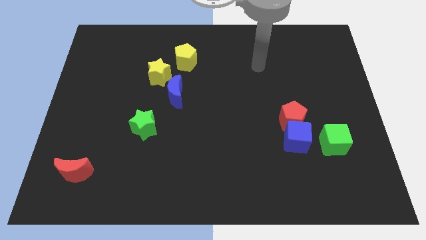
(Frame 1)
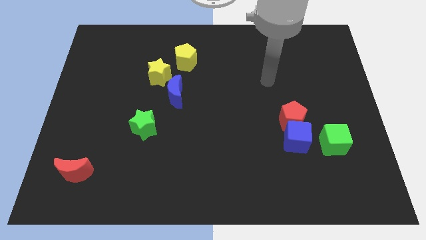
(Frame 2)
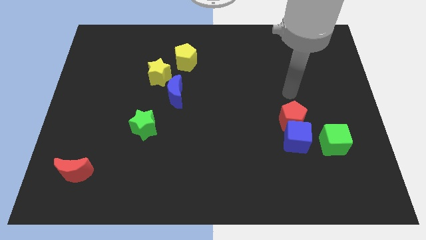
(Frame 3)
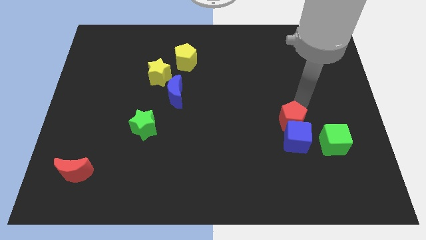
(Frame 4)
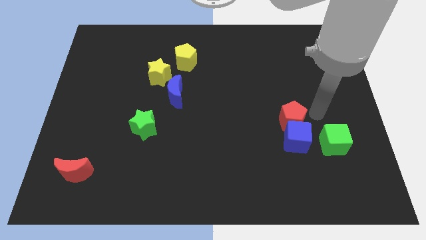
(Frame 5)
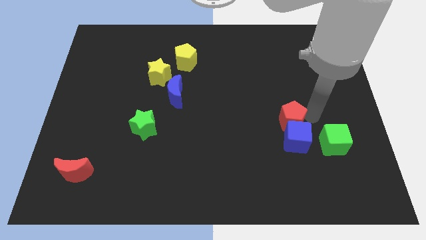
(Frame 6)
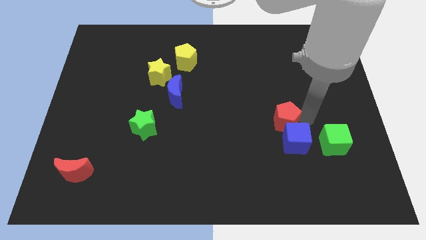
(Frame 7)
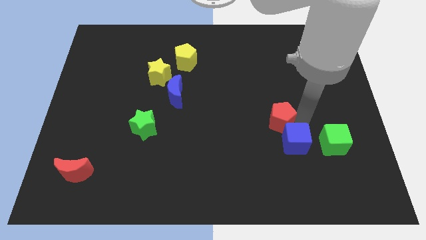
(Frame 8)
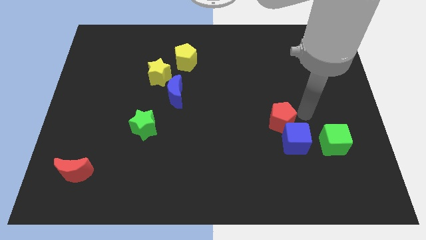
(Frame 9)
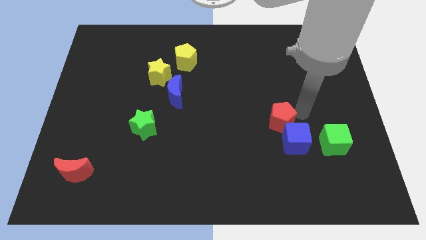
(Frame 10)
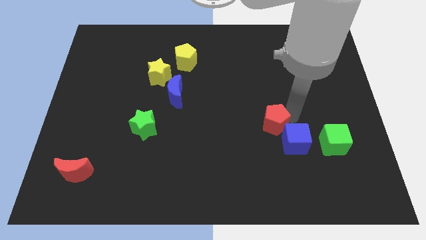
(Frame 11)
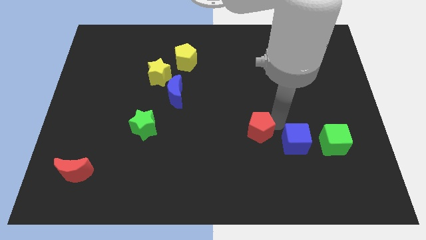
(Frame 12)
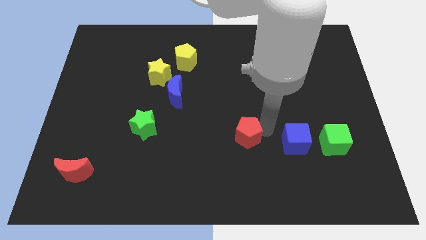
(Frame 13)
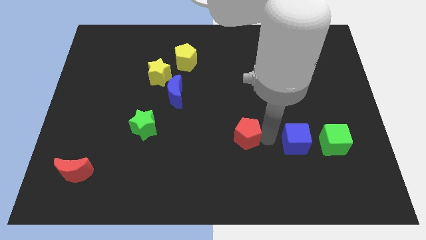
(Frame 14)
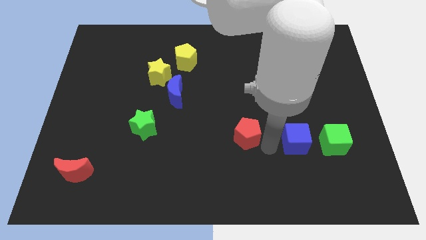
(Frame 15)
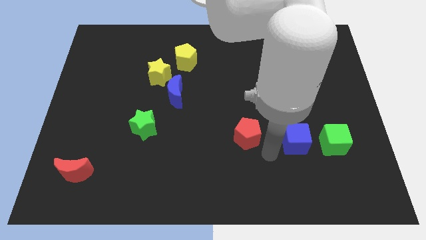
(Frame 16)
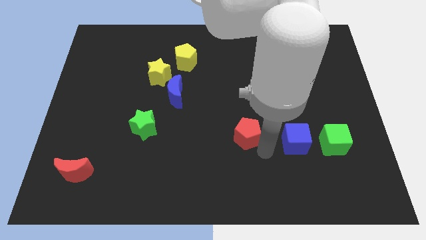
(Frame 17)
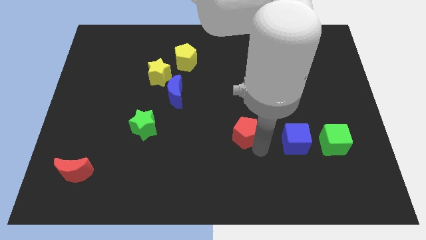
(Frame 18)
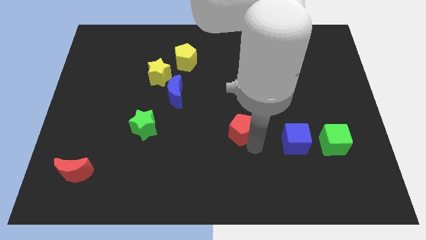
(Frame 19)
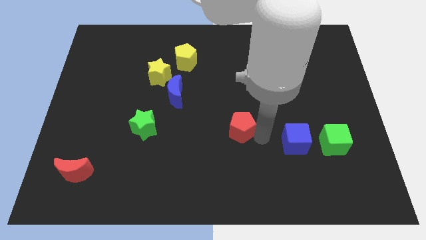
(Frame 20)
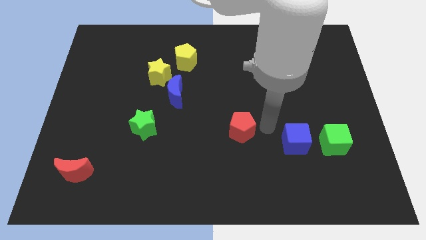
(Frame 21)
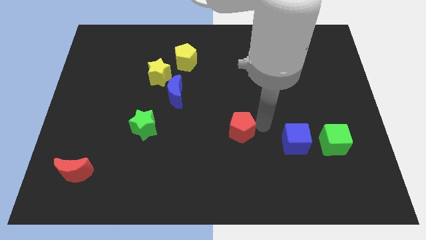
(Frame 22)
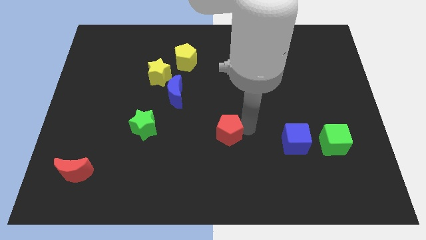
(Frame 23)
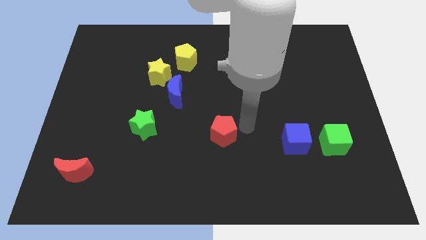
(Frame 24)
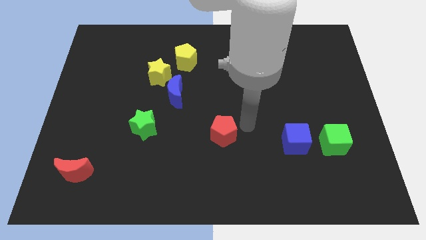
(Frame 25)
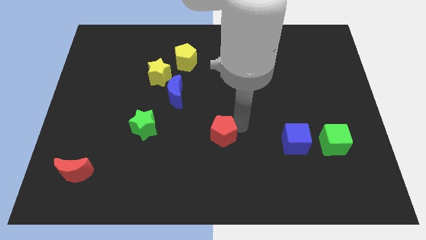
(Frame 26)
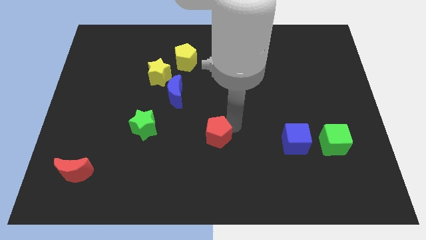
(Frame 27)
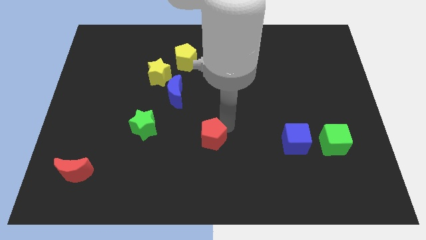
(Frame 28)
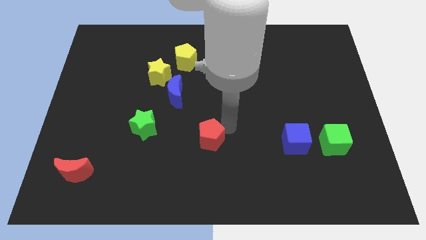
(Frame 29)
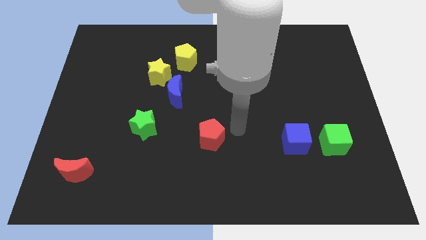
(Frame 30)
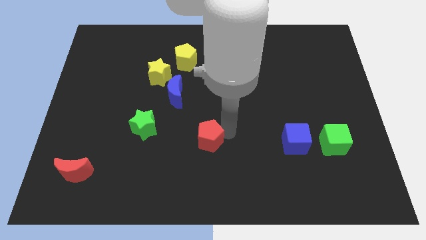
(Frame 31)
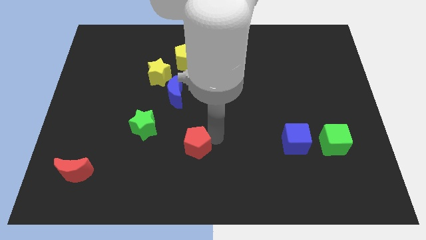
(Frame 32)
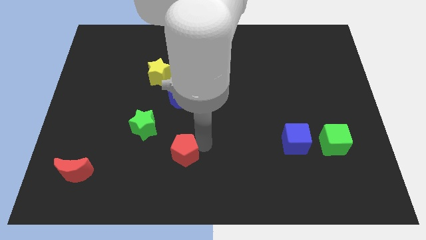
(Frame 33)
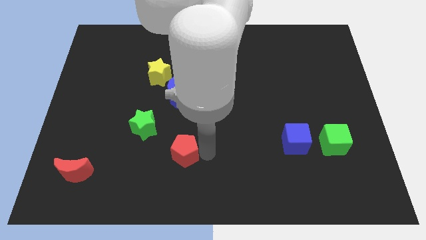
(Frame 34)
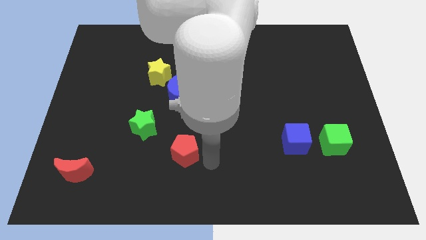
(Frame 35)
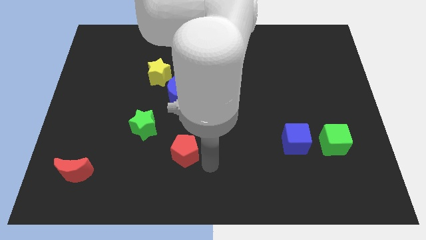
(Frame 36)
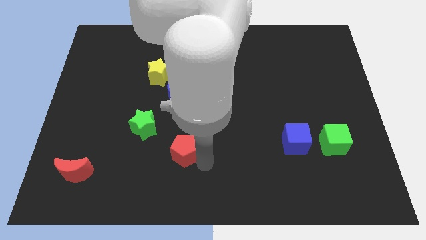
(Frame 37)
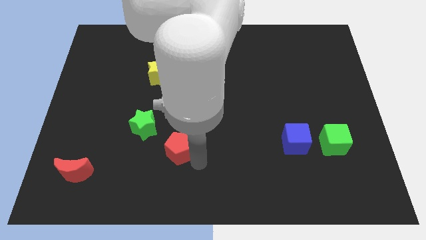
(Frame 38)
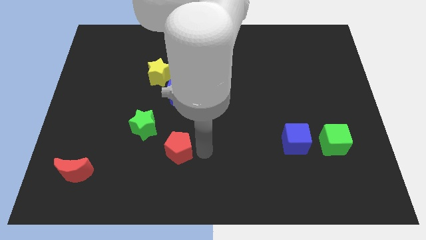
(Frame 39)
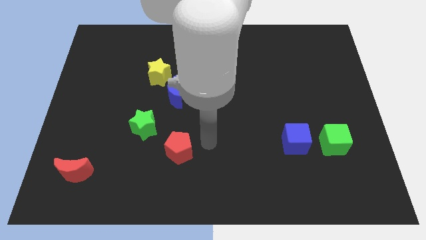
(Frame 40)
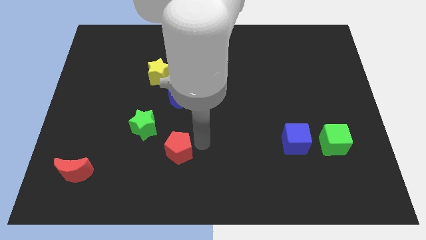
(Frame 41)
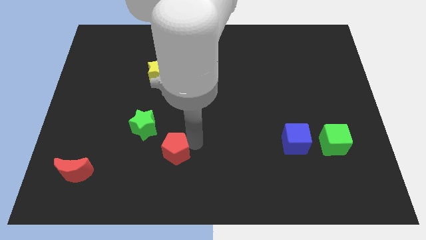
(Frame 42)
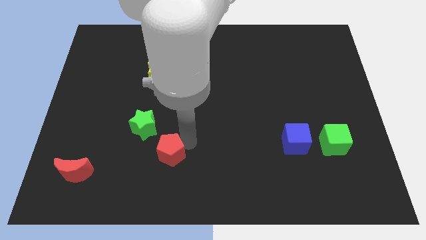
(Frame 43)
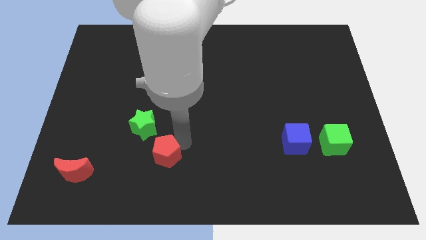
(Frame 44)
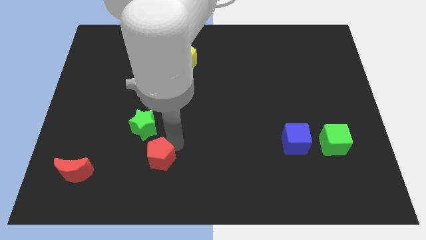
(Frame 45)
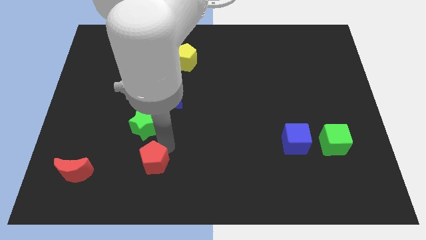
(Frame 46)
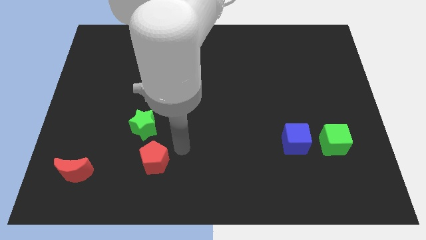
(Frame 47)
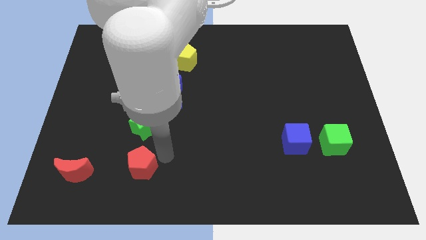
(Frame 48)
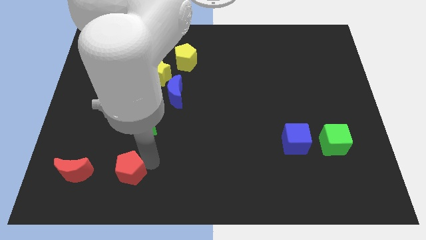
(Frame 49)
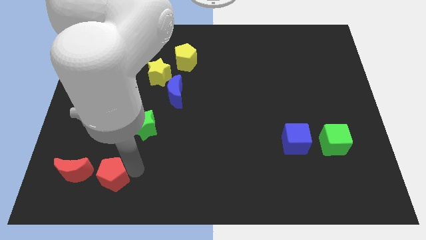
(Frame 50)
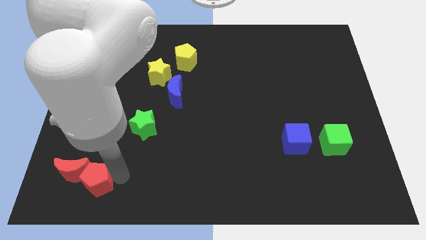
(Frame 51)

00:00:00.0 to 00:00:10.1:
move the red pentagon next to the red moon

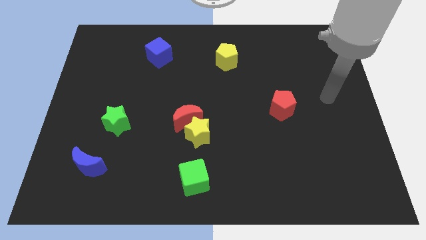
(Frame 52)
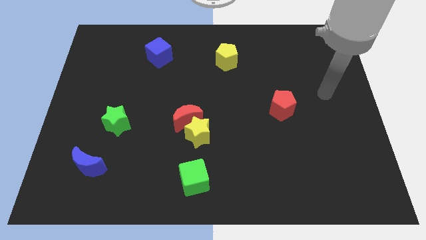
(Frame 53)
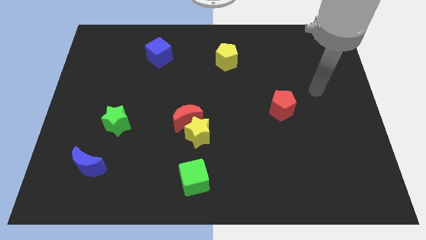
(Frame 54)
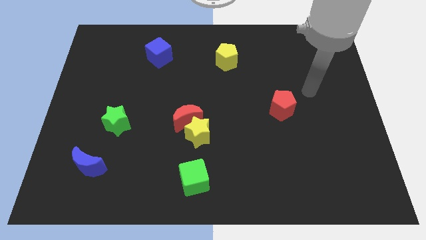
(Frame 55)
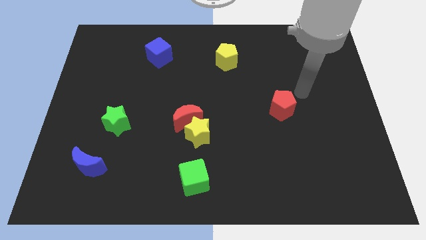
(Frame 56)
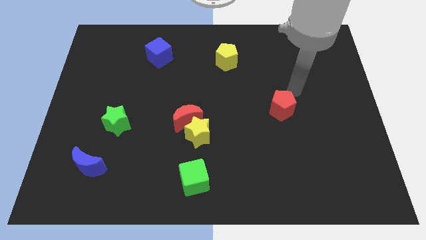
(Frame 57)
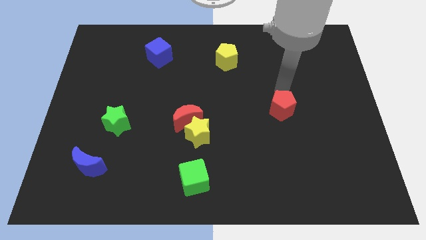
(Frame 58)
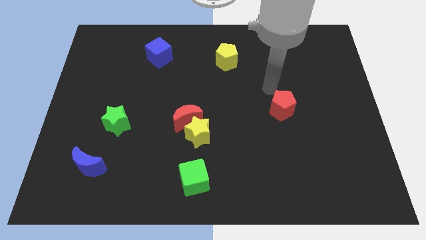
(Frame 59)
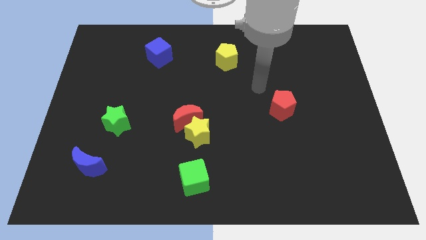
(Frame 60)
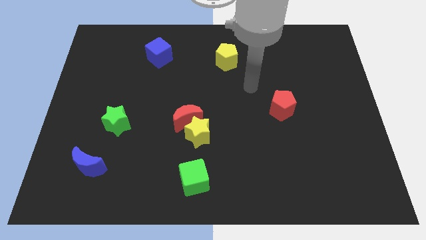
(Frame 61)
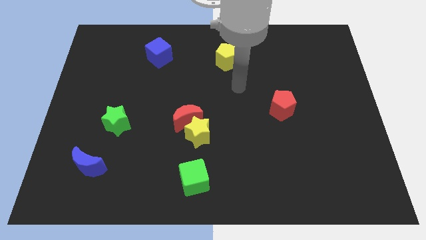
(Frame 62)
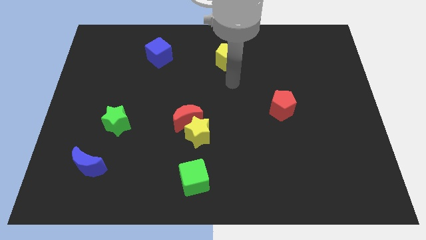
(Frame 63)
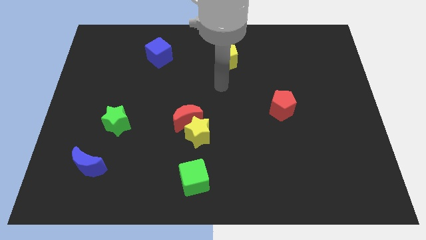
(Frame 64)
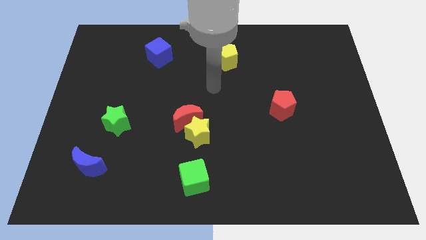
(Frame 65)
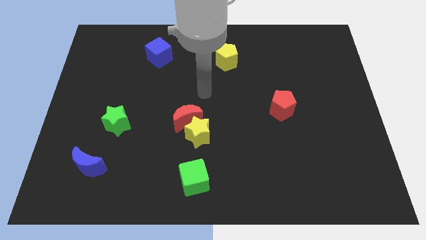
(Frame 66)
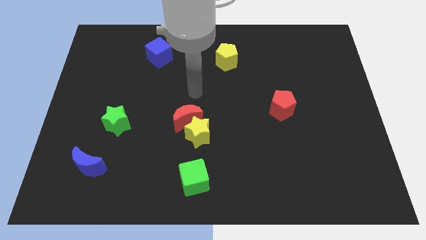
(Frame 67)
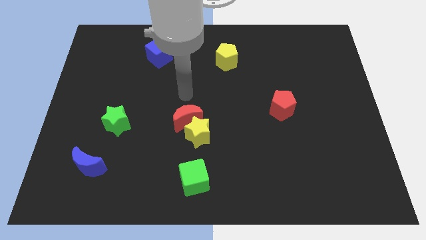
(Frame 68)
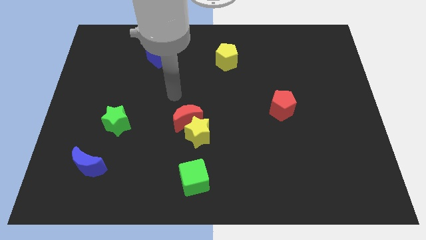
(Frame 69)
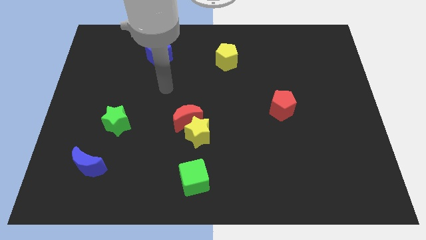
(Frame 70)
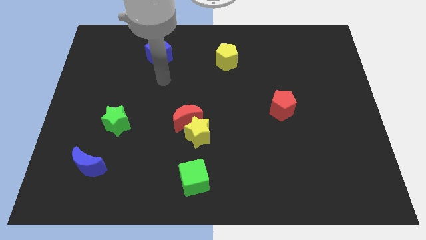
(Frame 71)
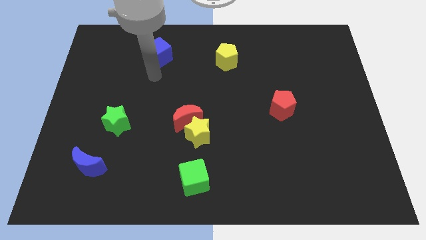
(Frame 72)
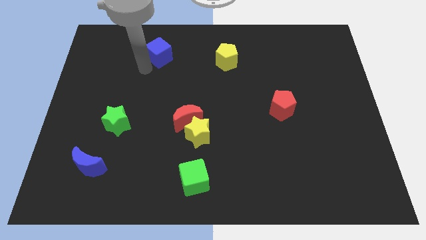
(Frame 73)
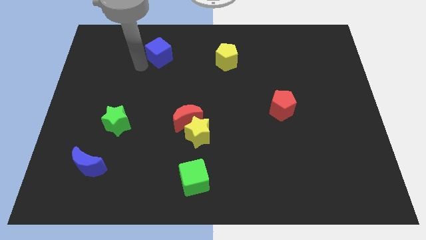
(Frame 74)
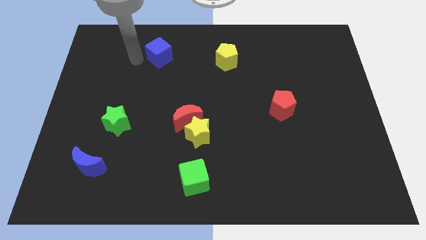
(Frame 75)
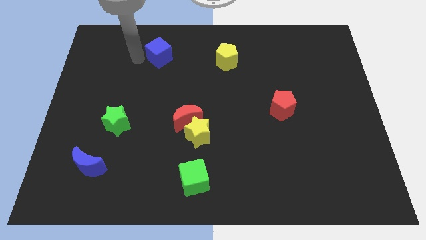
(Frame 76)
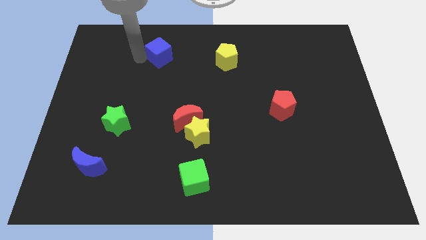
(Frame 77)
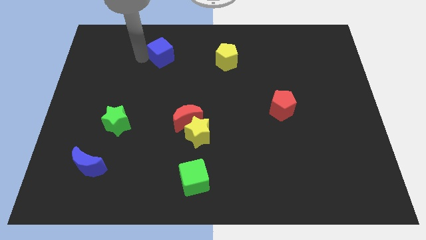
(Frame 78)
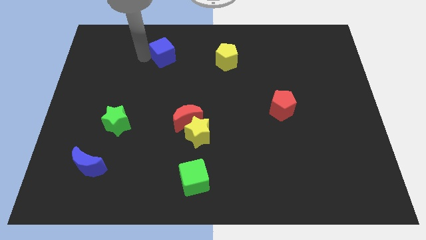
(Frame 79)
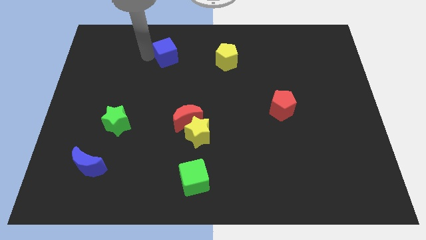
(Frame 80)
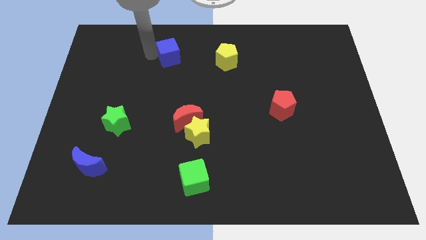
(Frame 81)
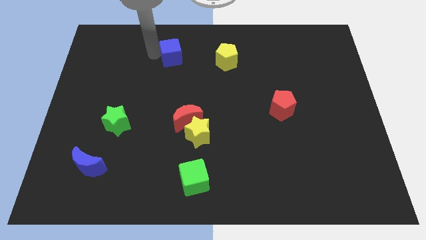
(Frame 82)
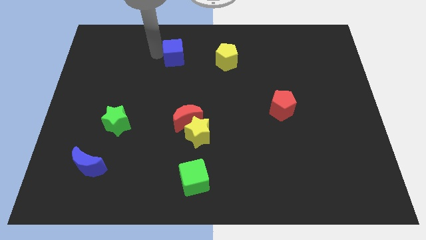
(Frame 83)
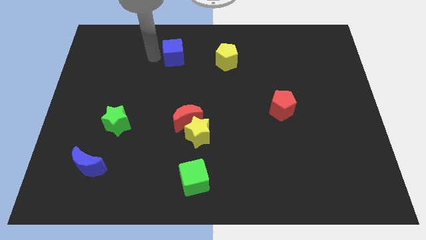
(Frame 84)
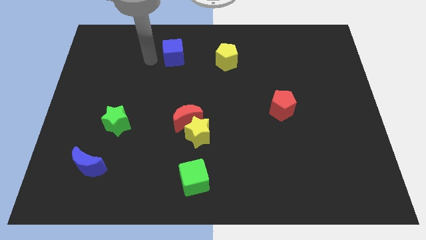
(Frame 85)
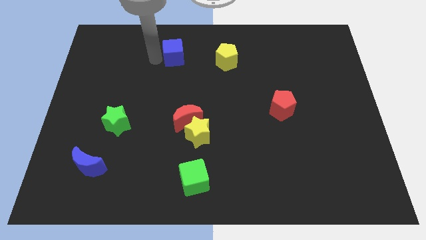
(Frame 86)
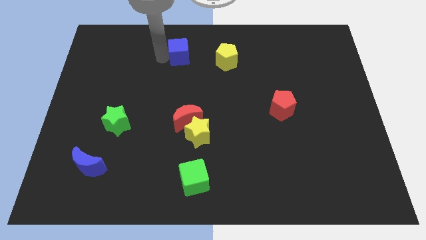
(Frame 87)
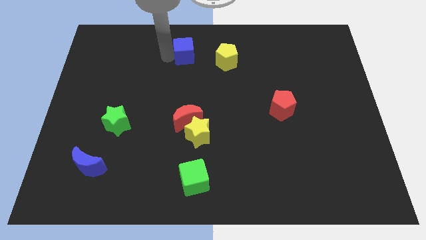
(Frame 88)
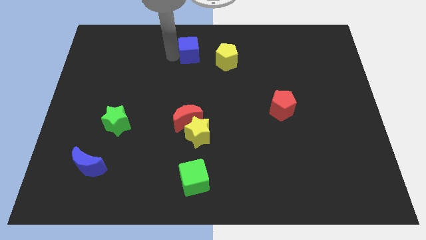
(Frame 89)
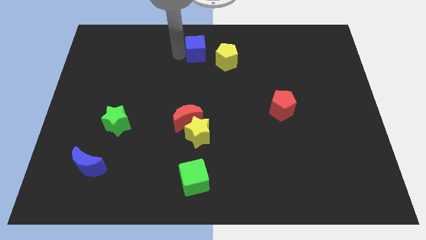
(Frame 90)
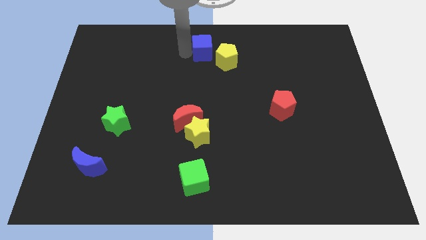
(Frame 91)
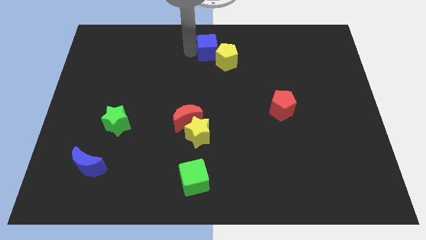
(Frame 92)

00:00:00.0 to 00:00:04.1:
put the blue cube towards the yellow pentagon
